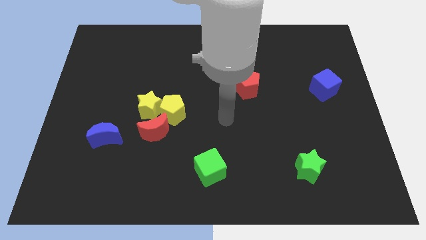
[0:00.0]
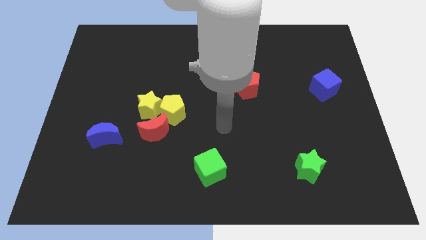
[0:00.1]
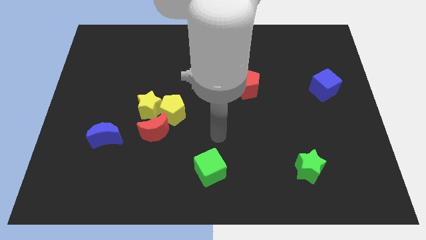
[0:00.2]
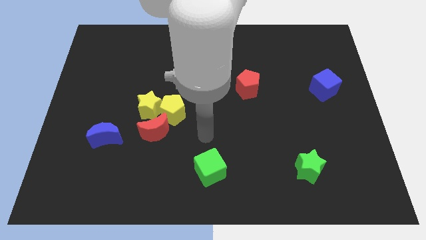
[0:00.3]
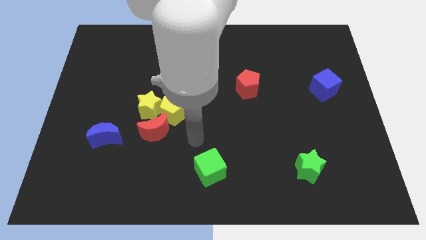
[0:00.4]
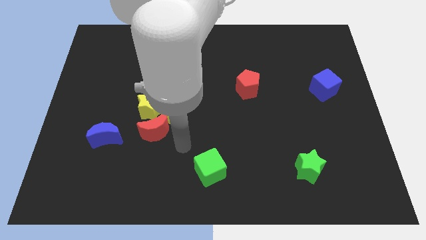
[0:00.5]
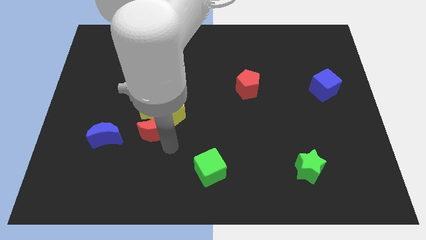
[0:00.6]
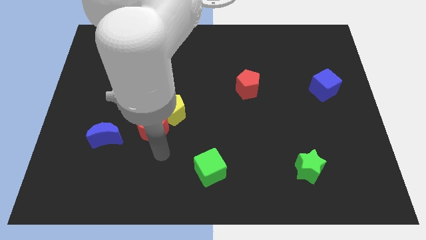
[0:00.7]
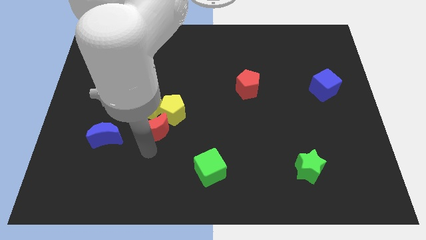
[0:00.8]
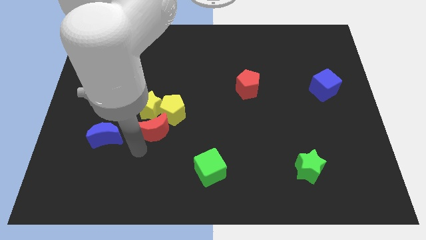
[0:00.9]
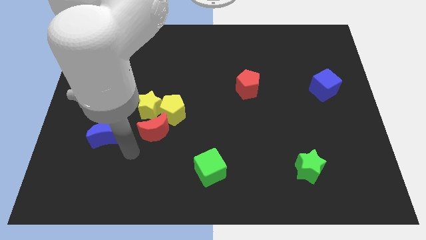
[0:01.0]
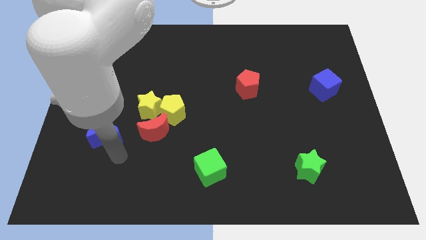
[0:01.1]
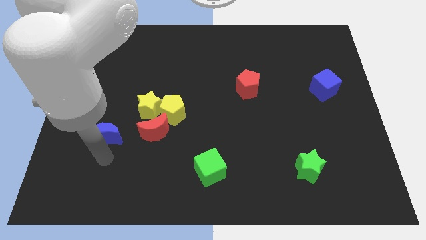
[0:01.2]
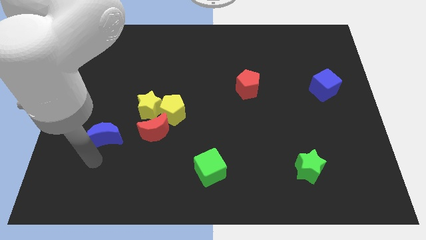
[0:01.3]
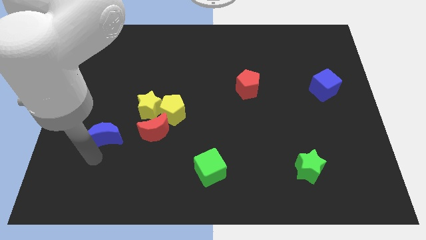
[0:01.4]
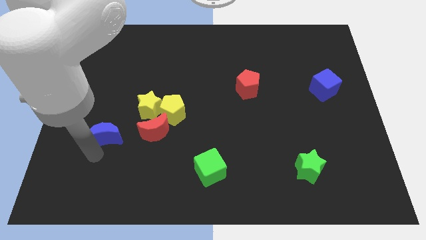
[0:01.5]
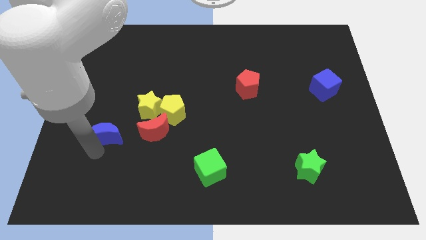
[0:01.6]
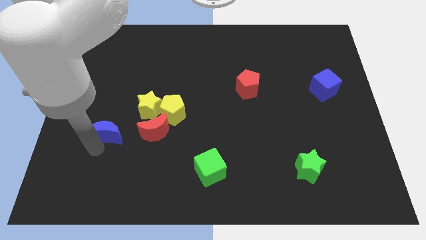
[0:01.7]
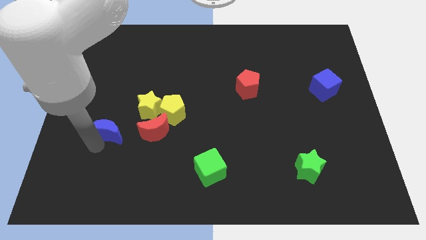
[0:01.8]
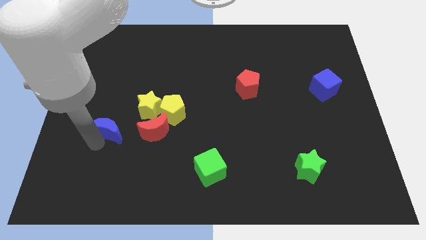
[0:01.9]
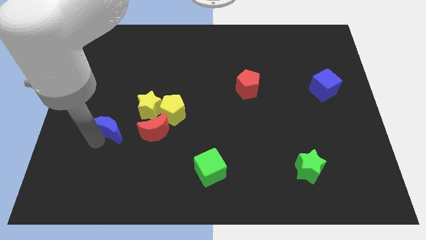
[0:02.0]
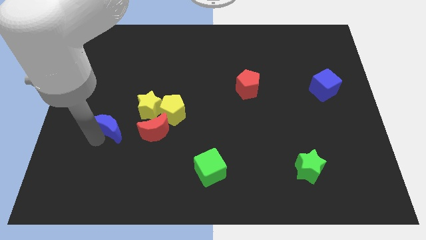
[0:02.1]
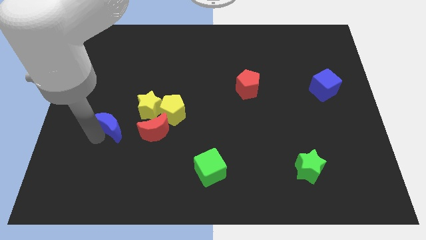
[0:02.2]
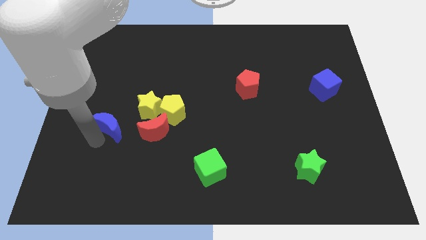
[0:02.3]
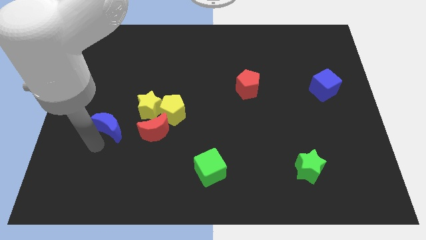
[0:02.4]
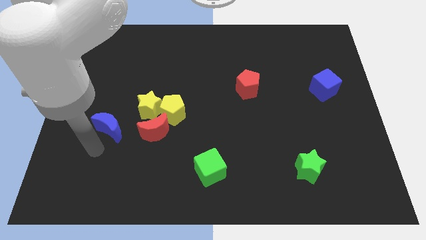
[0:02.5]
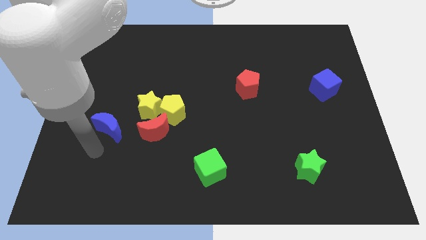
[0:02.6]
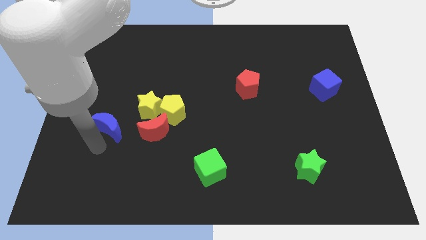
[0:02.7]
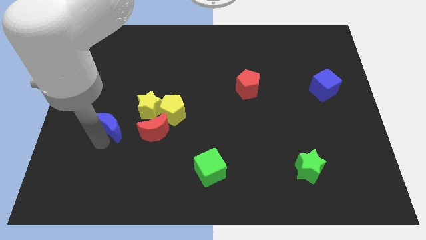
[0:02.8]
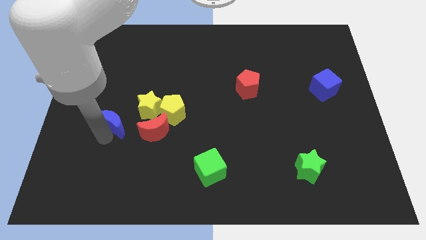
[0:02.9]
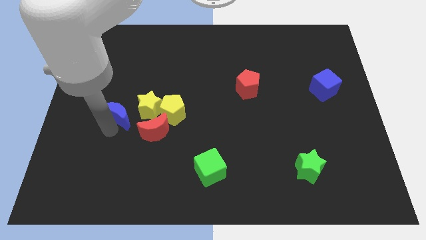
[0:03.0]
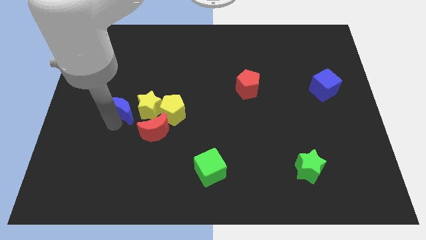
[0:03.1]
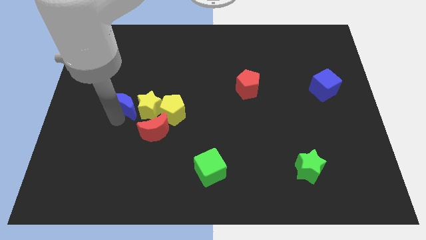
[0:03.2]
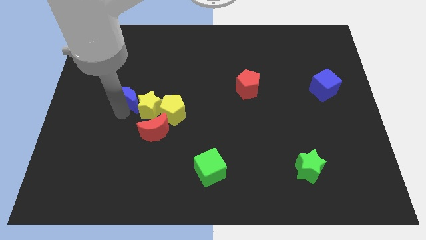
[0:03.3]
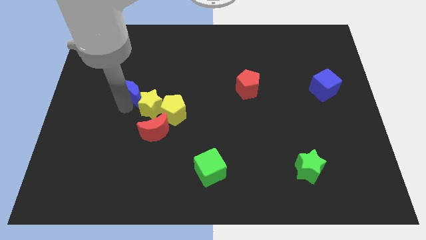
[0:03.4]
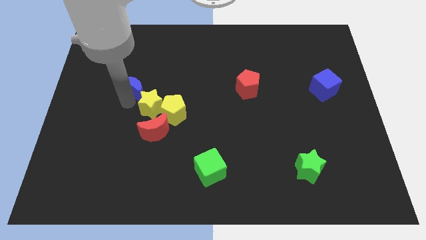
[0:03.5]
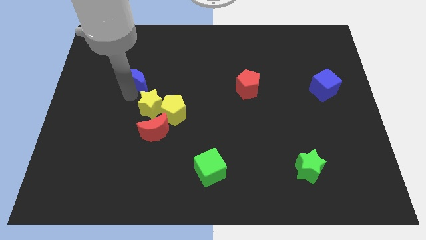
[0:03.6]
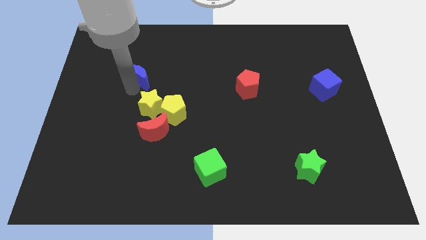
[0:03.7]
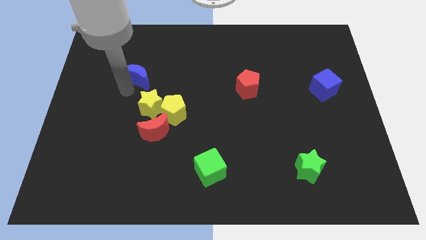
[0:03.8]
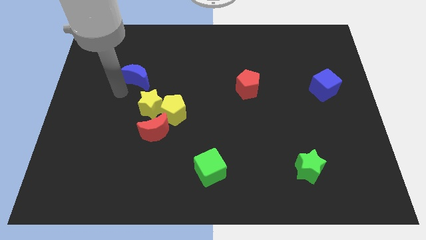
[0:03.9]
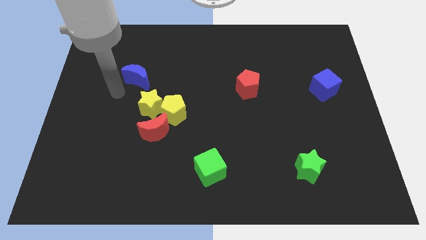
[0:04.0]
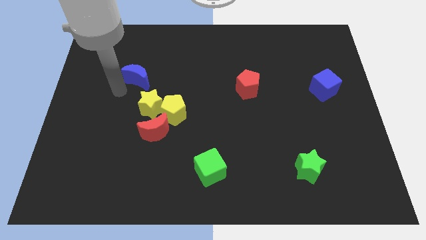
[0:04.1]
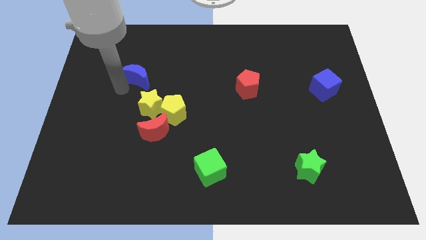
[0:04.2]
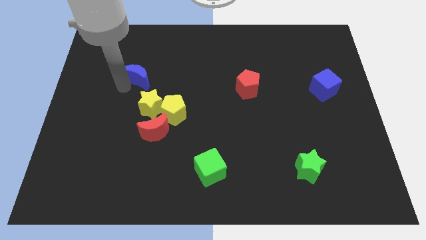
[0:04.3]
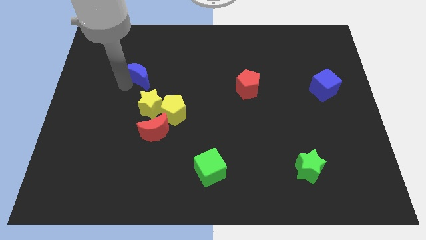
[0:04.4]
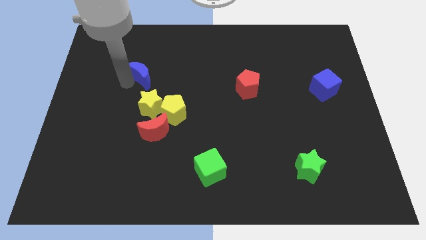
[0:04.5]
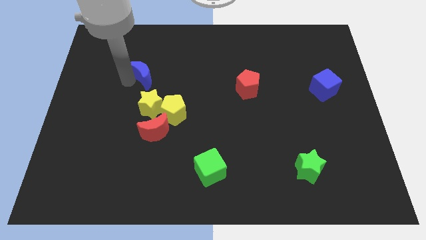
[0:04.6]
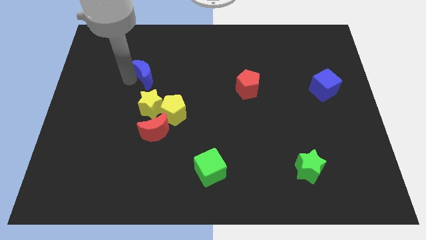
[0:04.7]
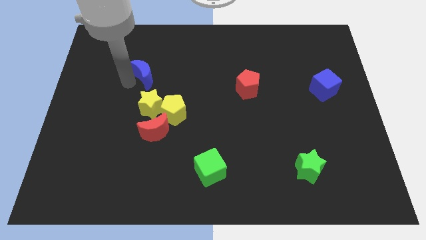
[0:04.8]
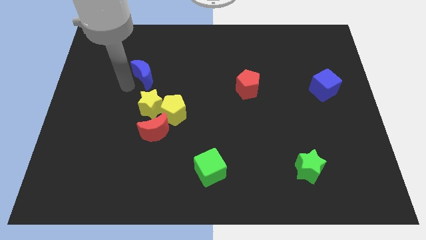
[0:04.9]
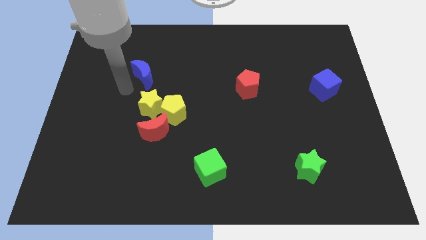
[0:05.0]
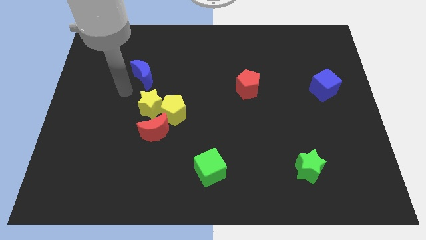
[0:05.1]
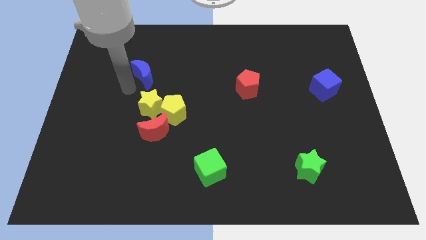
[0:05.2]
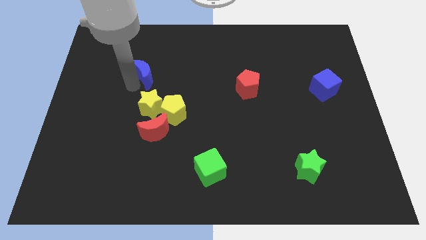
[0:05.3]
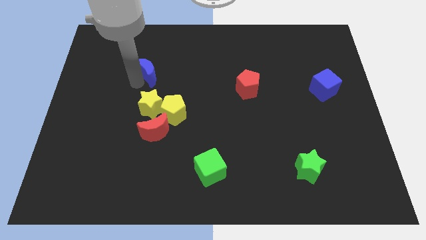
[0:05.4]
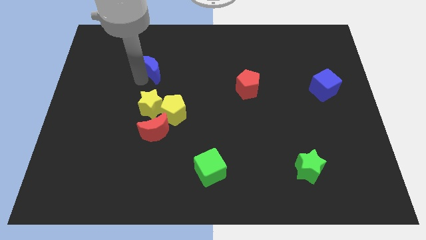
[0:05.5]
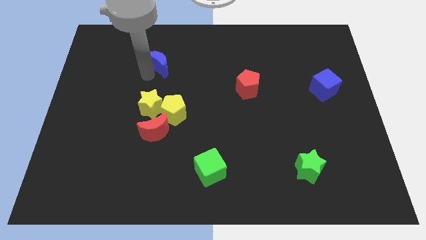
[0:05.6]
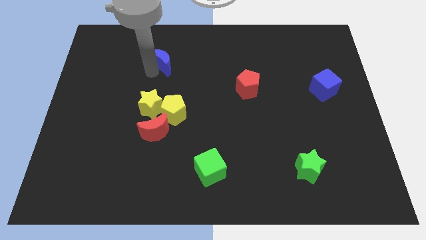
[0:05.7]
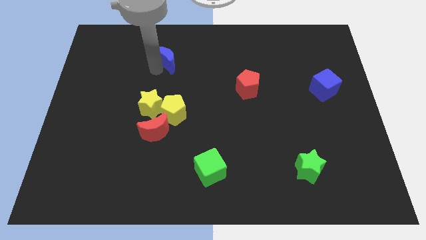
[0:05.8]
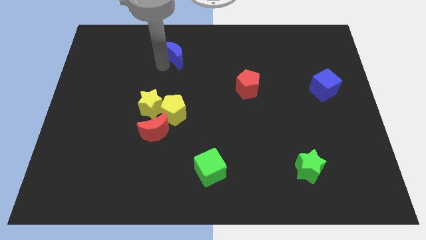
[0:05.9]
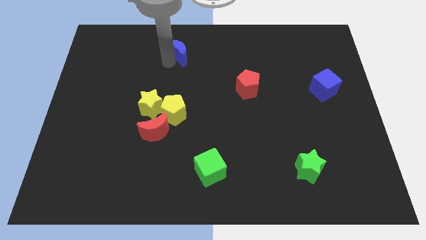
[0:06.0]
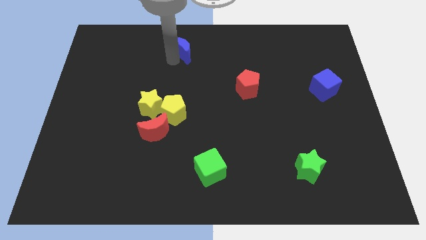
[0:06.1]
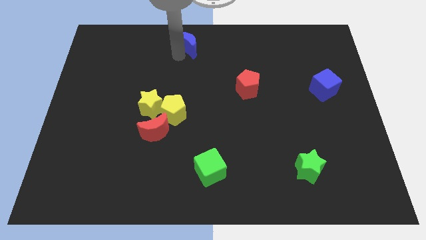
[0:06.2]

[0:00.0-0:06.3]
slide the blue moon to the top side

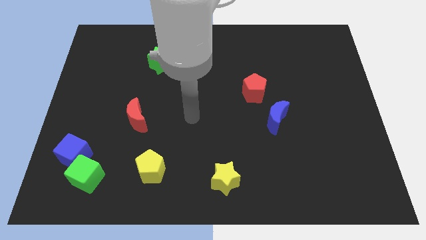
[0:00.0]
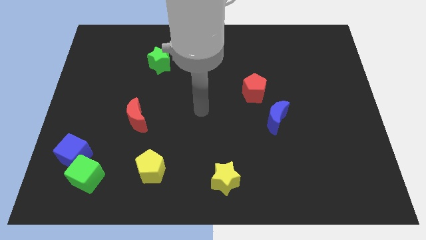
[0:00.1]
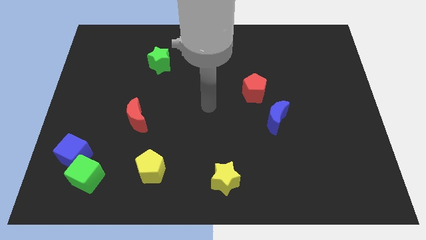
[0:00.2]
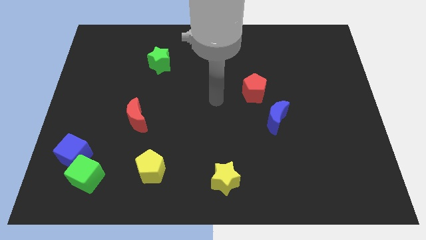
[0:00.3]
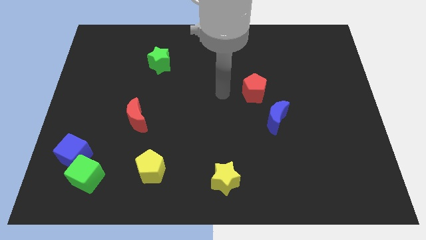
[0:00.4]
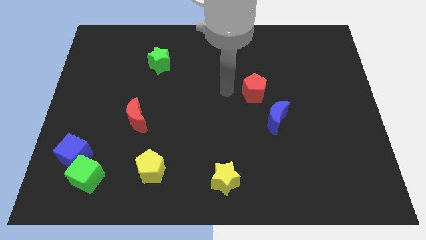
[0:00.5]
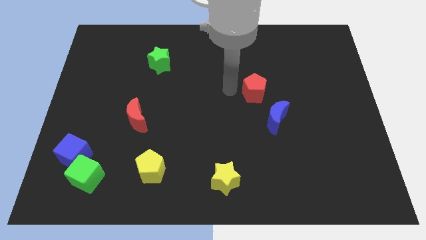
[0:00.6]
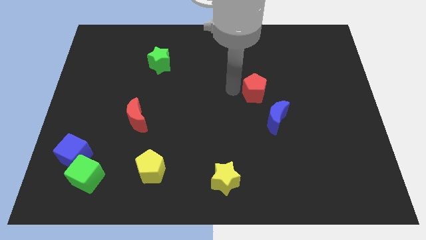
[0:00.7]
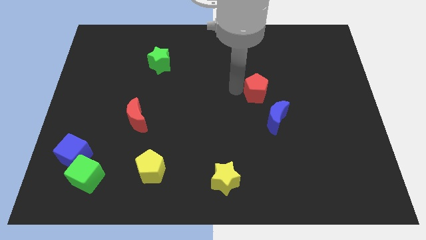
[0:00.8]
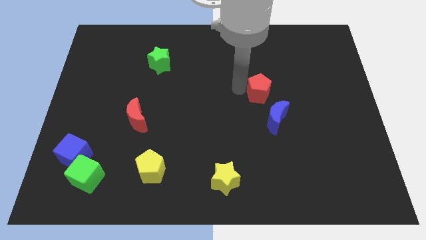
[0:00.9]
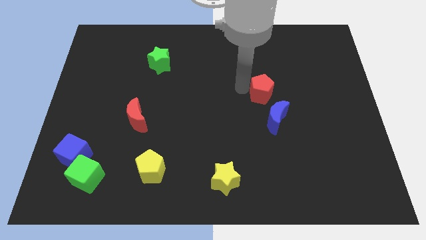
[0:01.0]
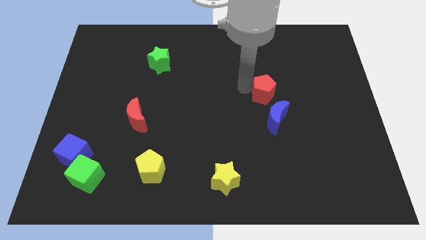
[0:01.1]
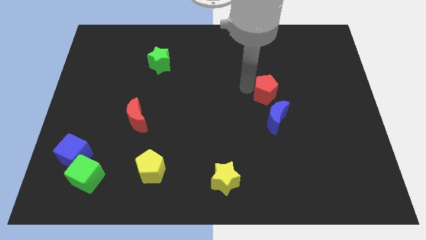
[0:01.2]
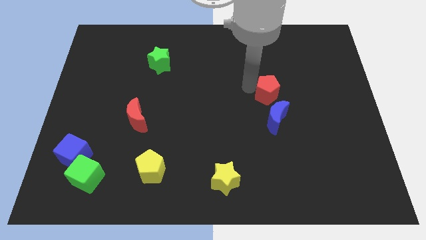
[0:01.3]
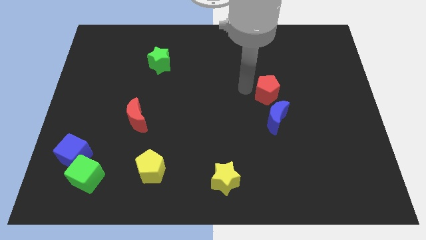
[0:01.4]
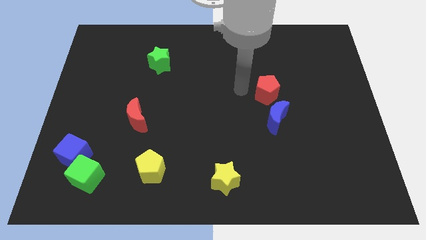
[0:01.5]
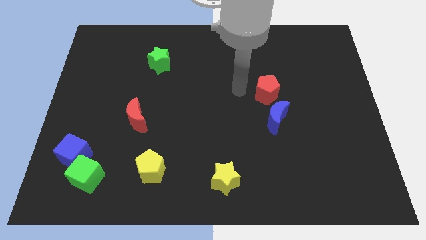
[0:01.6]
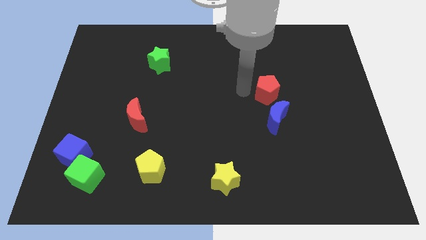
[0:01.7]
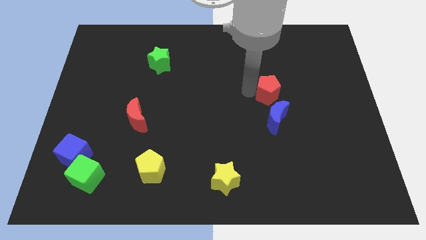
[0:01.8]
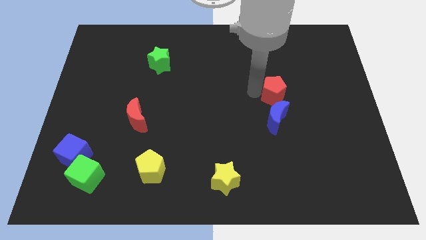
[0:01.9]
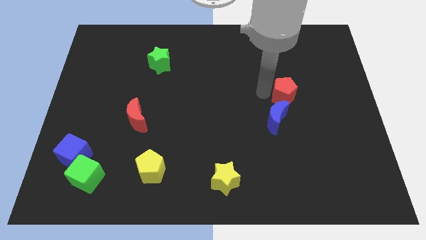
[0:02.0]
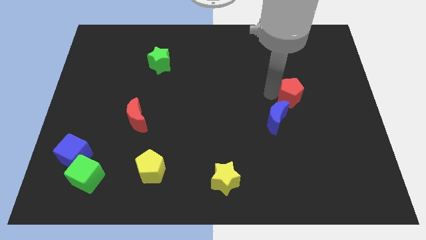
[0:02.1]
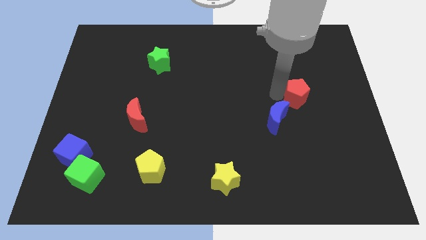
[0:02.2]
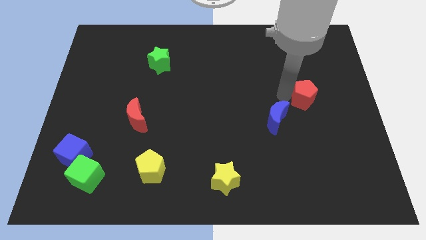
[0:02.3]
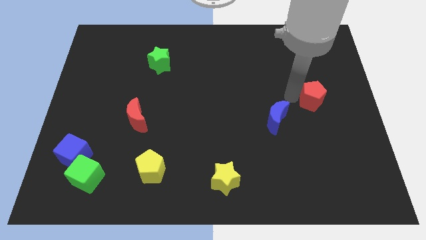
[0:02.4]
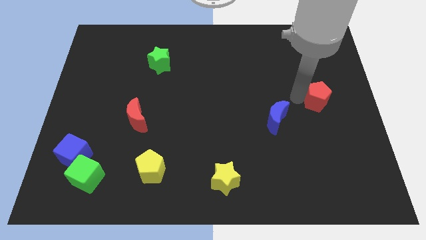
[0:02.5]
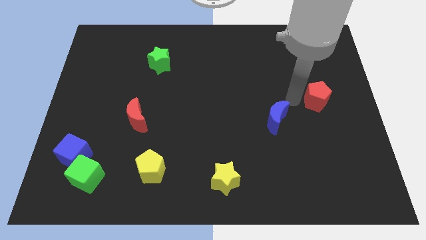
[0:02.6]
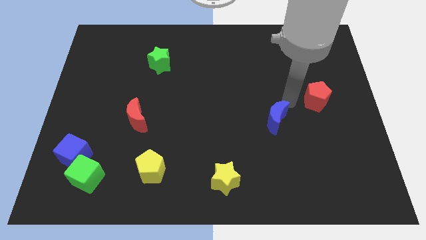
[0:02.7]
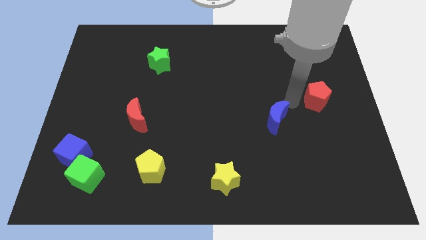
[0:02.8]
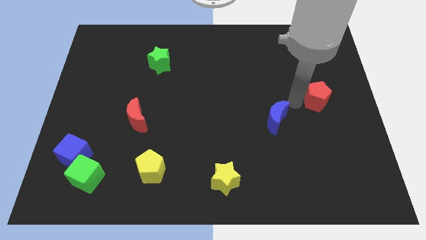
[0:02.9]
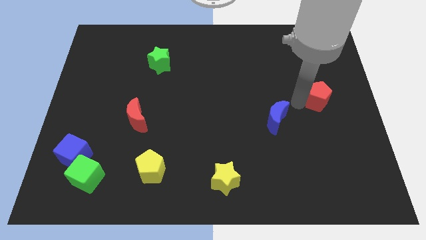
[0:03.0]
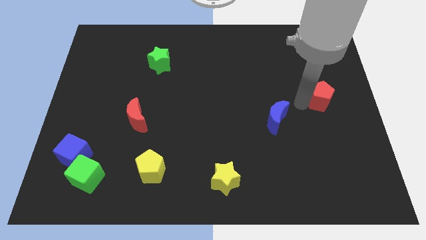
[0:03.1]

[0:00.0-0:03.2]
put the red pentagon to the center right
